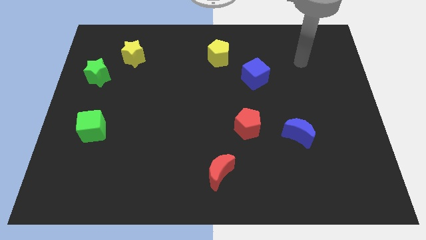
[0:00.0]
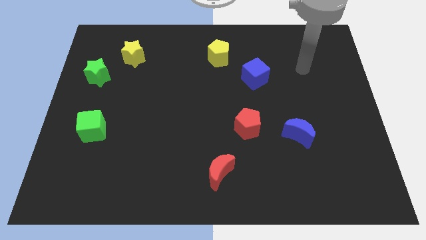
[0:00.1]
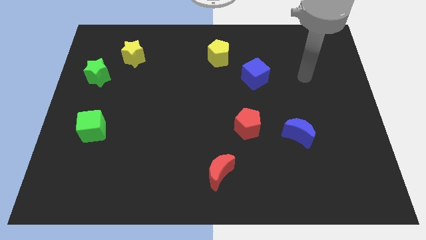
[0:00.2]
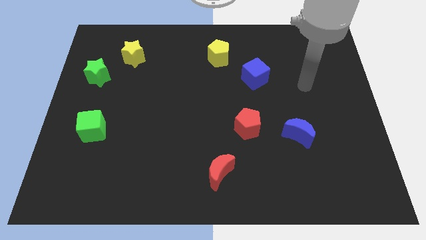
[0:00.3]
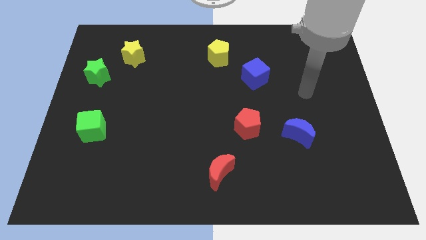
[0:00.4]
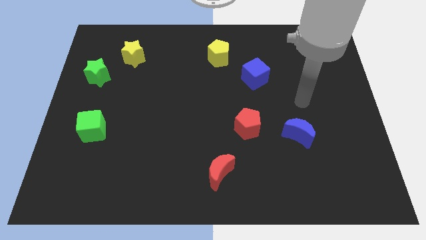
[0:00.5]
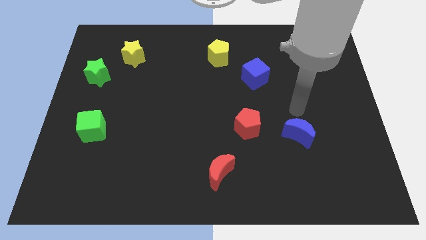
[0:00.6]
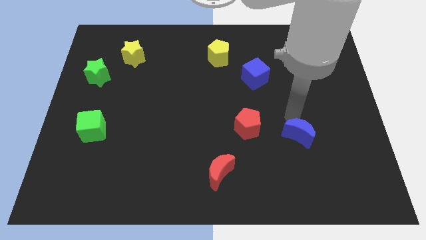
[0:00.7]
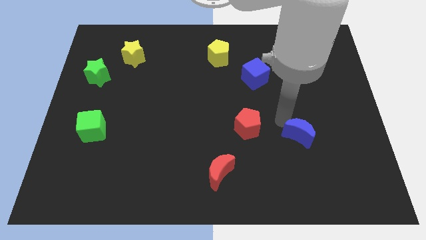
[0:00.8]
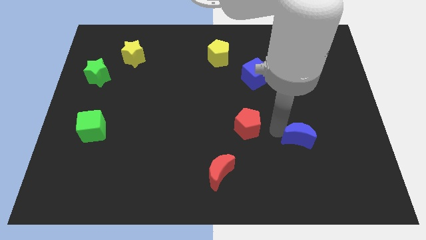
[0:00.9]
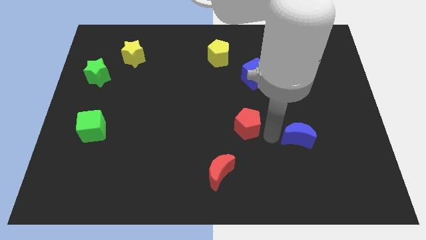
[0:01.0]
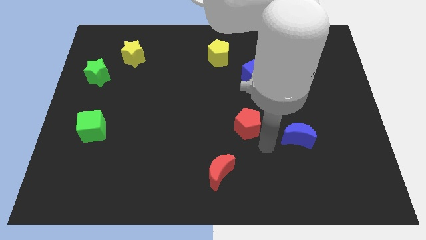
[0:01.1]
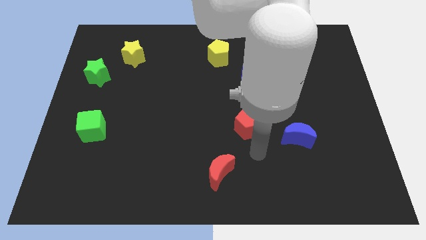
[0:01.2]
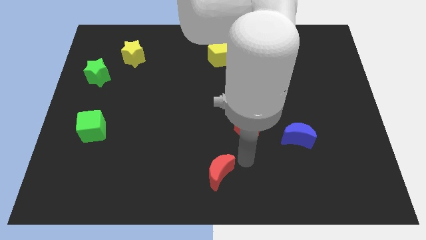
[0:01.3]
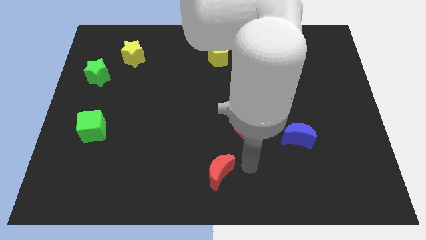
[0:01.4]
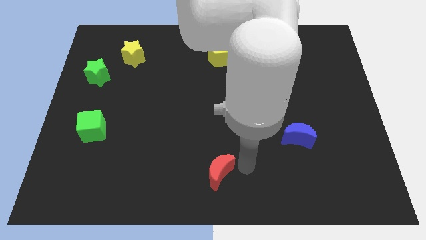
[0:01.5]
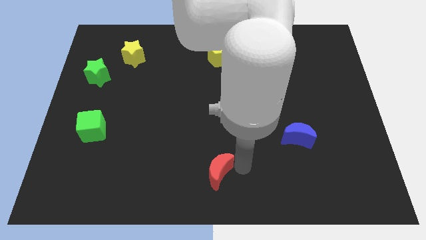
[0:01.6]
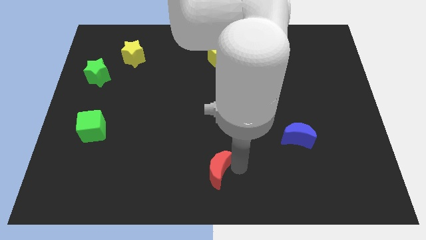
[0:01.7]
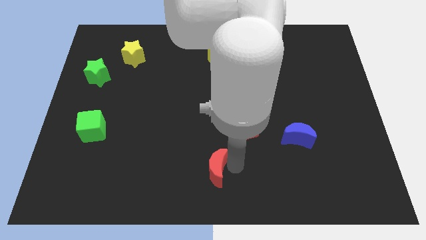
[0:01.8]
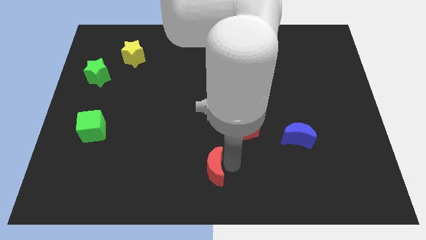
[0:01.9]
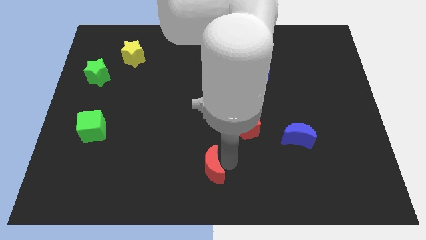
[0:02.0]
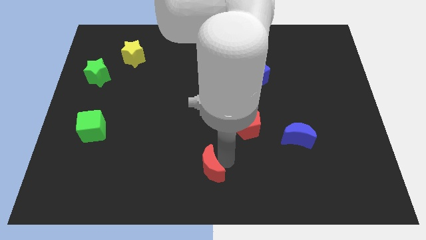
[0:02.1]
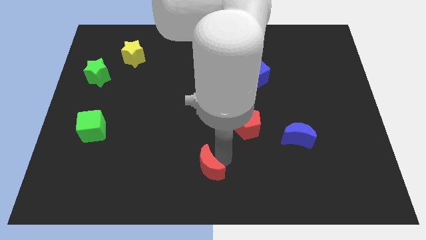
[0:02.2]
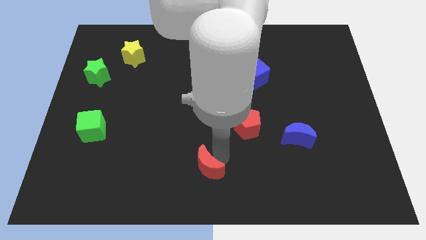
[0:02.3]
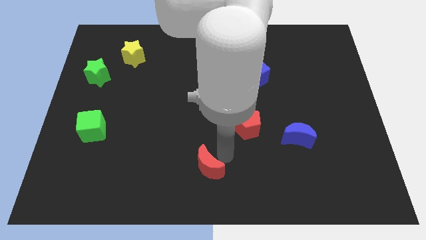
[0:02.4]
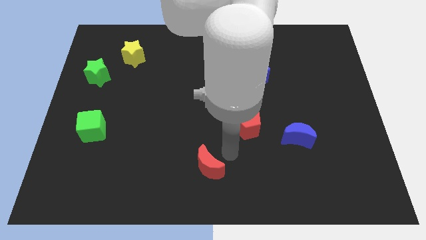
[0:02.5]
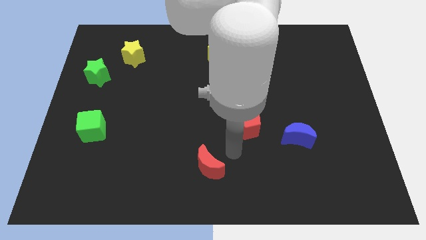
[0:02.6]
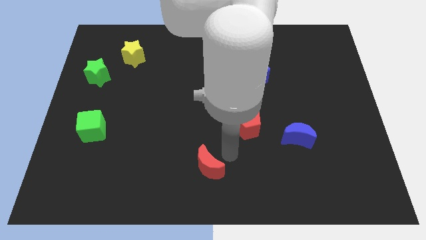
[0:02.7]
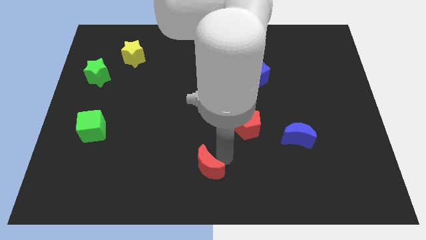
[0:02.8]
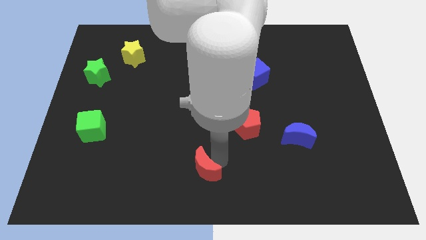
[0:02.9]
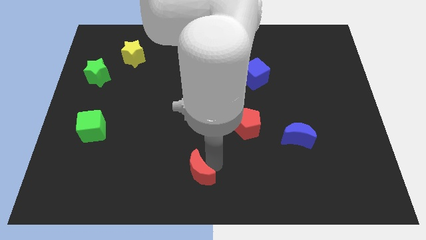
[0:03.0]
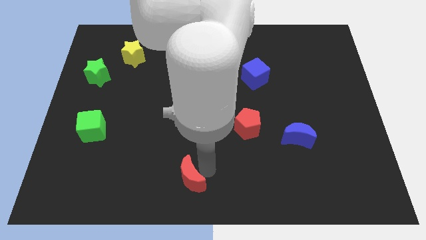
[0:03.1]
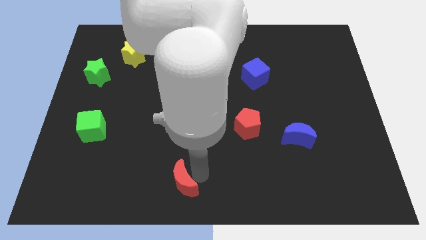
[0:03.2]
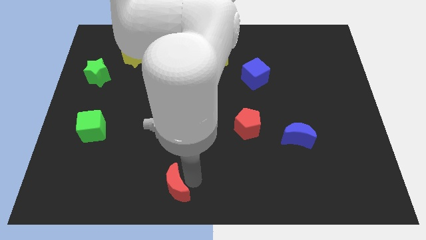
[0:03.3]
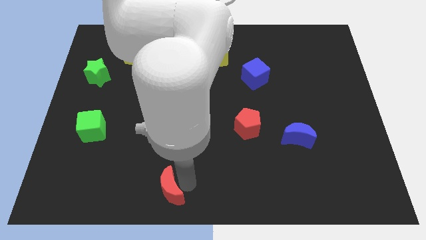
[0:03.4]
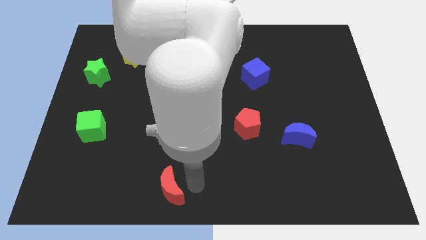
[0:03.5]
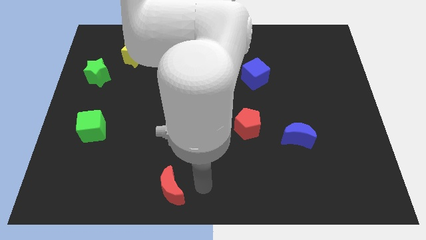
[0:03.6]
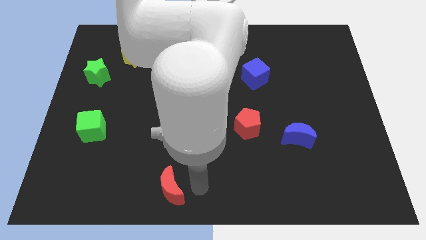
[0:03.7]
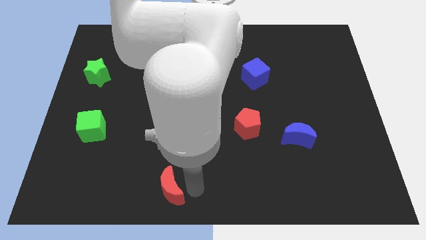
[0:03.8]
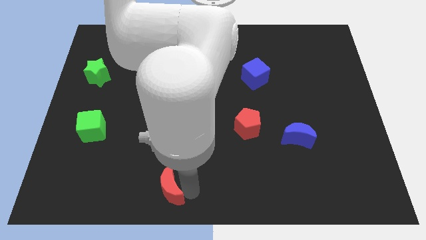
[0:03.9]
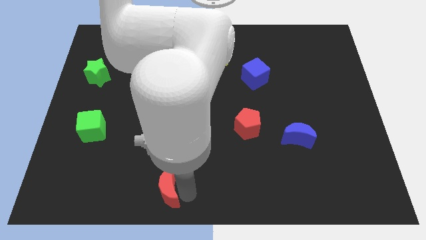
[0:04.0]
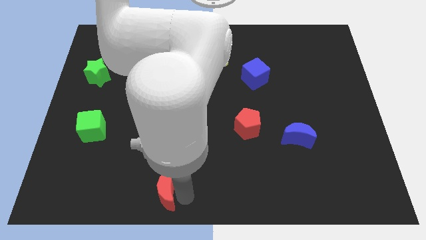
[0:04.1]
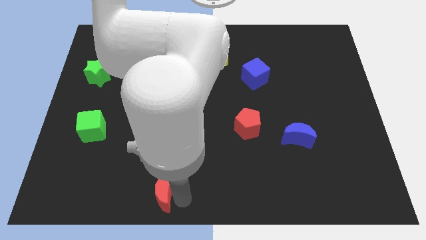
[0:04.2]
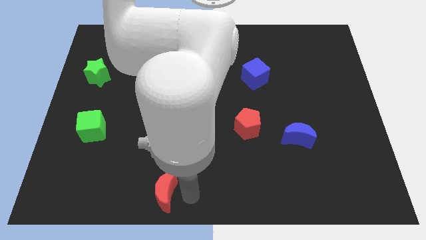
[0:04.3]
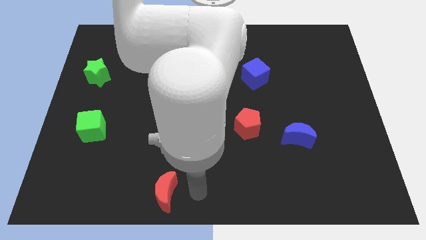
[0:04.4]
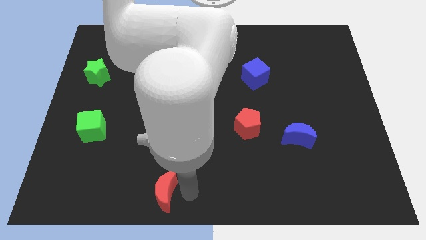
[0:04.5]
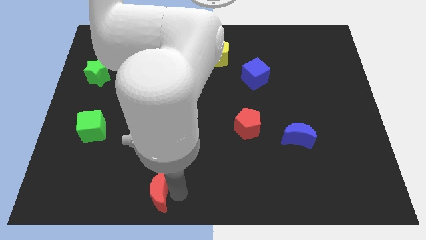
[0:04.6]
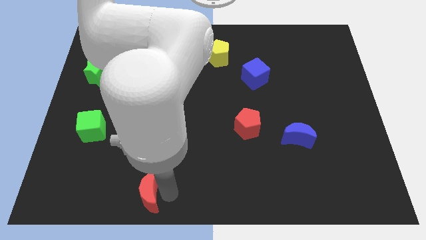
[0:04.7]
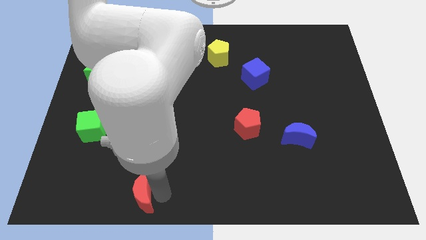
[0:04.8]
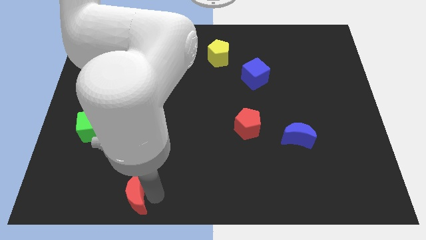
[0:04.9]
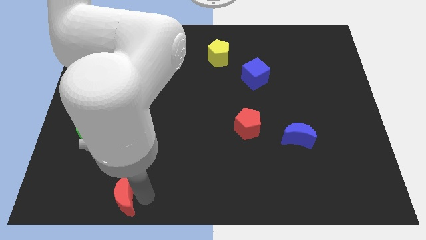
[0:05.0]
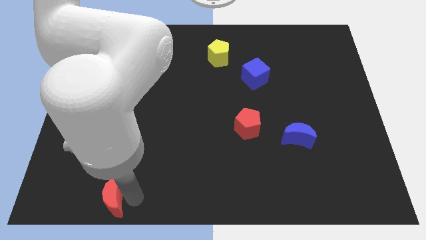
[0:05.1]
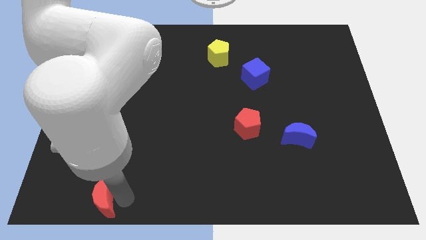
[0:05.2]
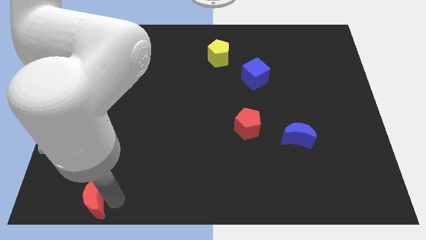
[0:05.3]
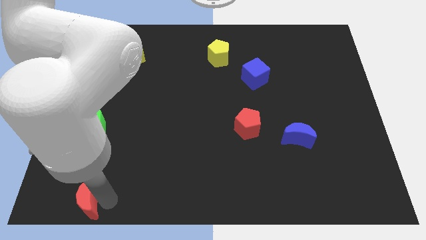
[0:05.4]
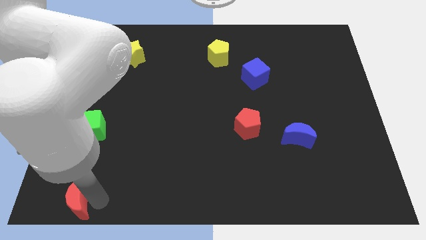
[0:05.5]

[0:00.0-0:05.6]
put the red moon to the bottom left

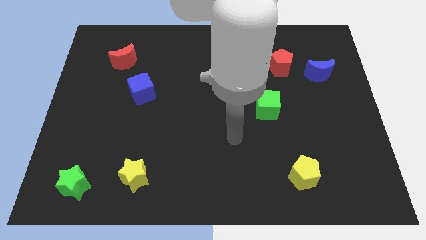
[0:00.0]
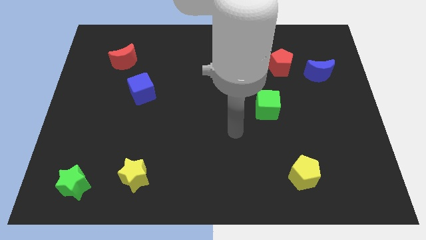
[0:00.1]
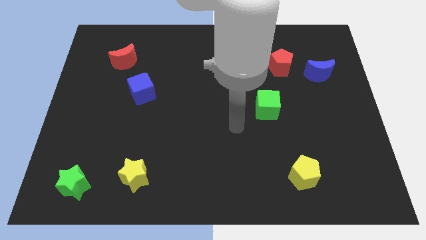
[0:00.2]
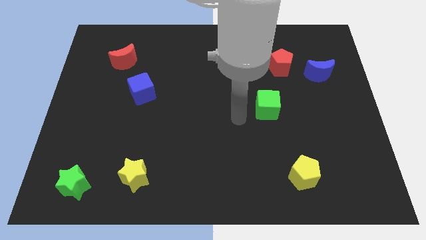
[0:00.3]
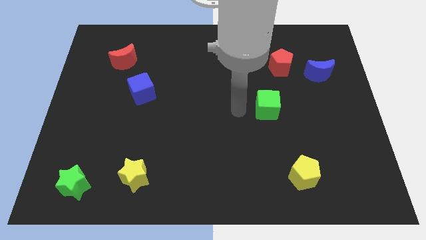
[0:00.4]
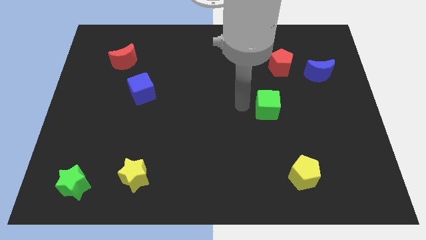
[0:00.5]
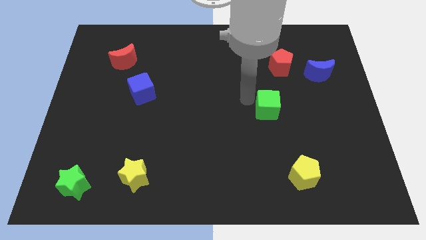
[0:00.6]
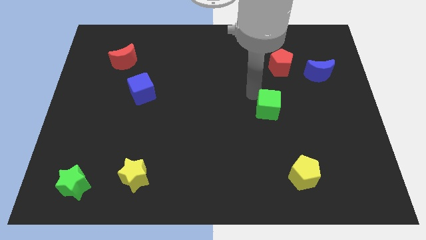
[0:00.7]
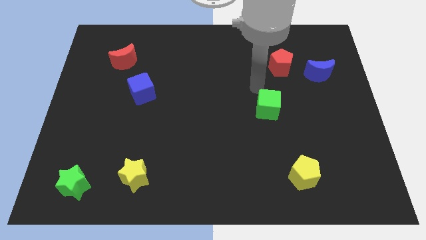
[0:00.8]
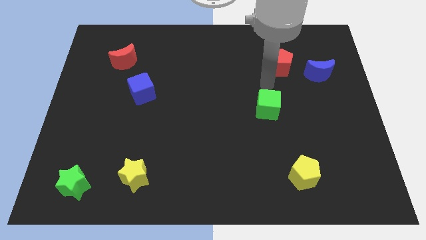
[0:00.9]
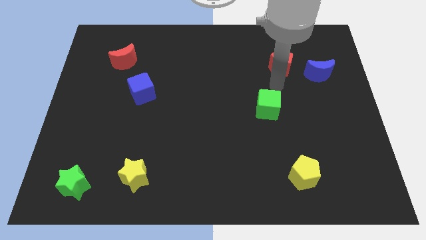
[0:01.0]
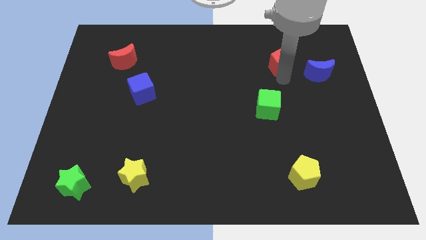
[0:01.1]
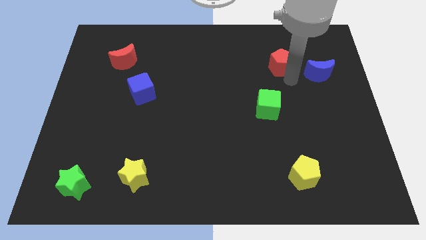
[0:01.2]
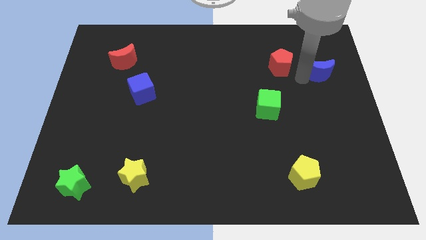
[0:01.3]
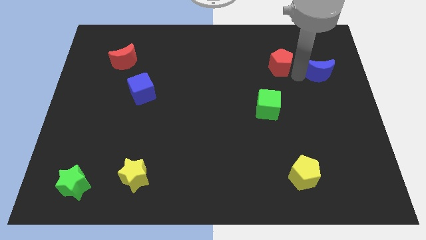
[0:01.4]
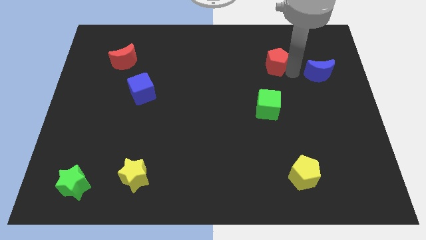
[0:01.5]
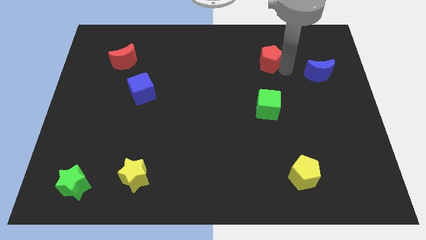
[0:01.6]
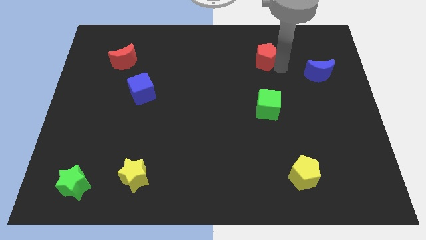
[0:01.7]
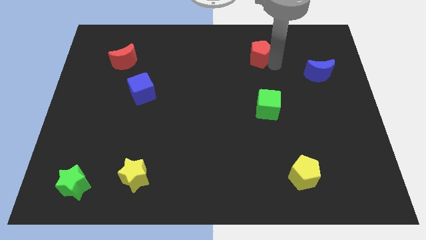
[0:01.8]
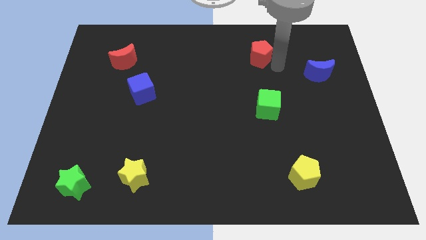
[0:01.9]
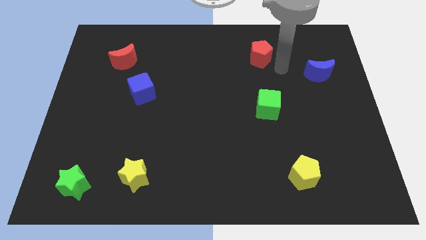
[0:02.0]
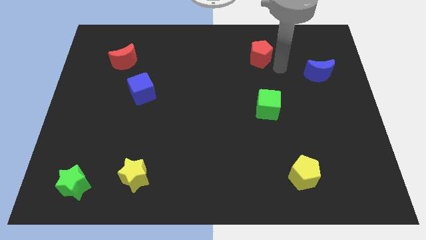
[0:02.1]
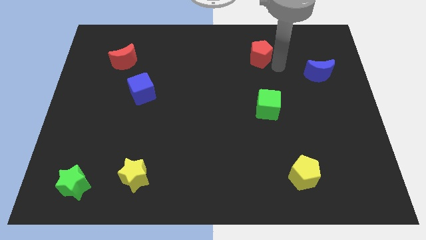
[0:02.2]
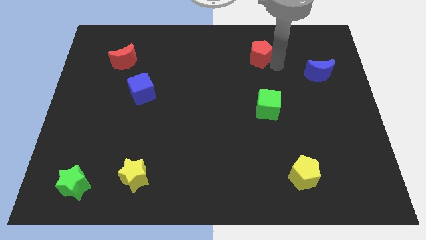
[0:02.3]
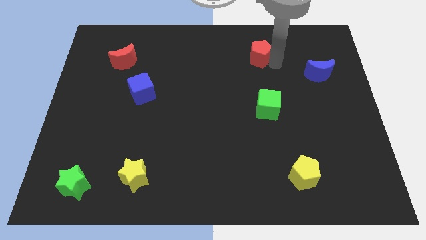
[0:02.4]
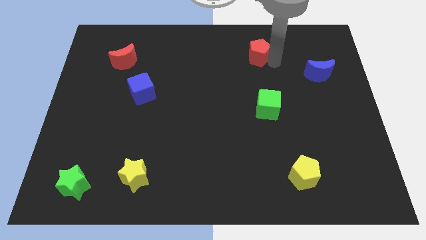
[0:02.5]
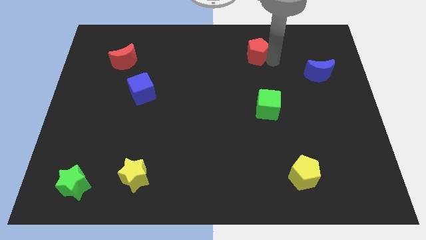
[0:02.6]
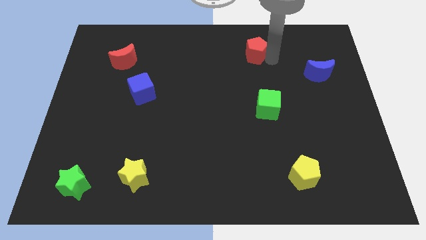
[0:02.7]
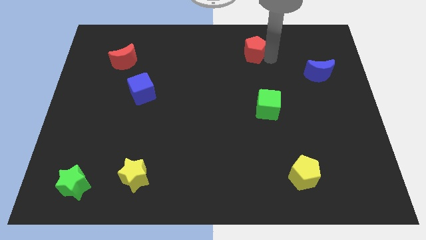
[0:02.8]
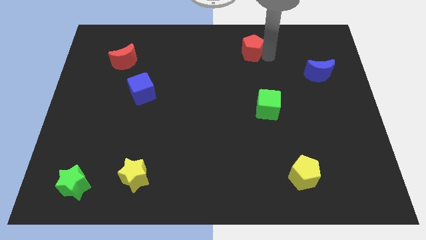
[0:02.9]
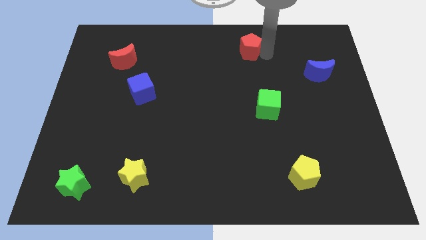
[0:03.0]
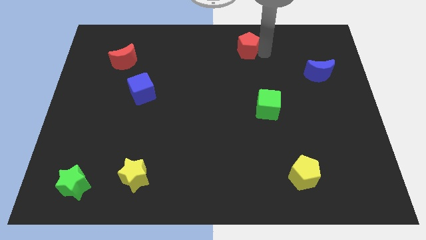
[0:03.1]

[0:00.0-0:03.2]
put the red pentagon to the top
